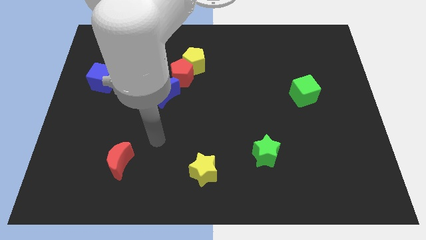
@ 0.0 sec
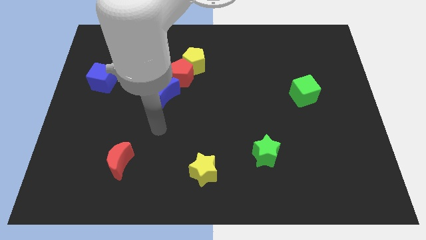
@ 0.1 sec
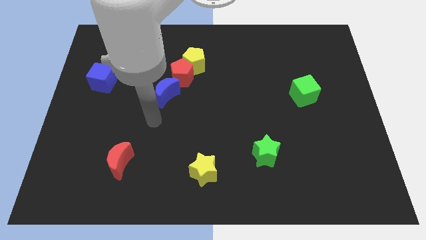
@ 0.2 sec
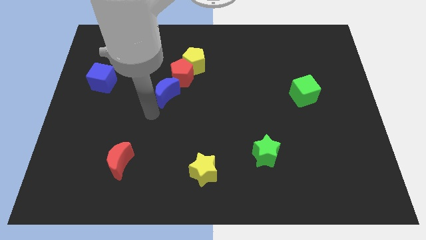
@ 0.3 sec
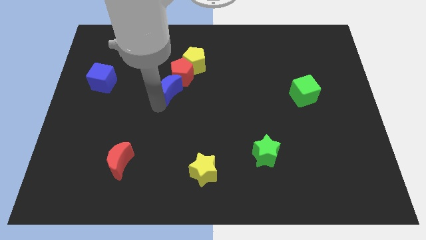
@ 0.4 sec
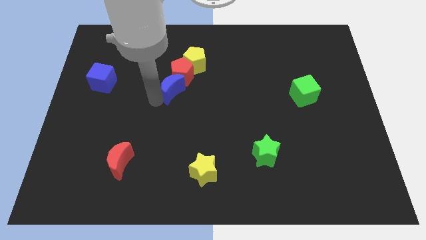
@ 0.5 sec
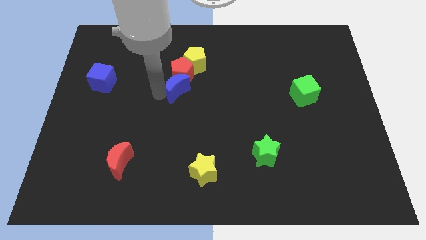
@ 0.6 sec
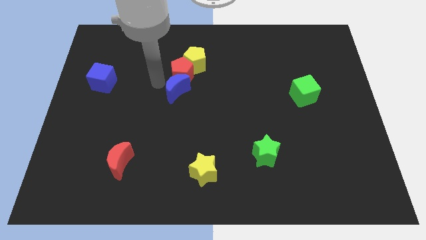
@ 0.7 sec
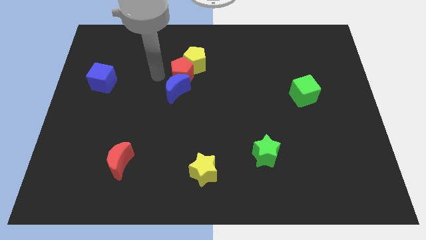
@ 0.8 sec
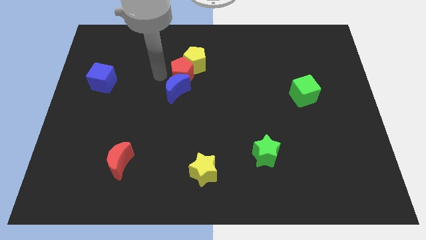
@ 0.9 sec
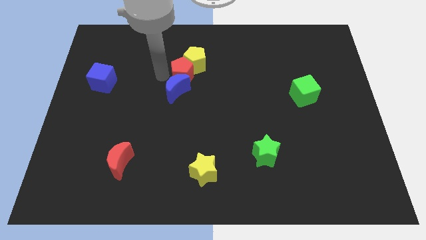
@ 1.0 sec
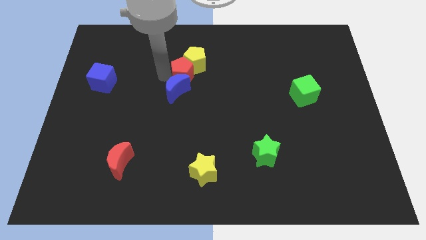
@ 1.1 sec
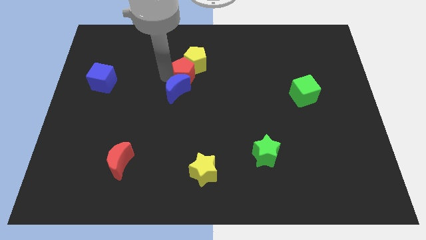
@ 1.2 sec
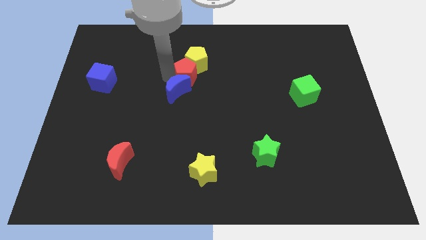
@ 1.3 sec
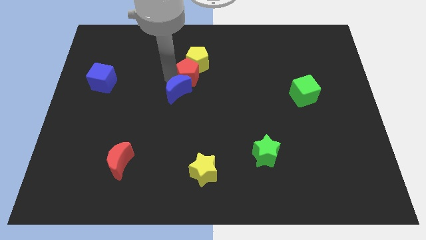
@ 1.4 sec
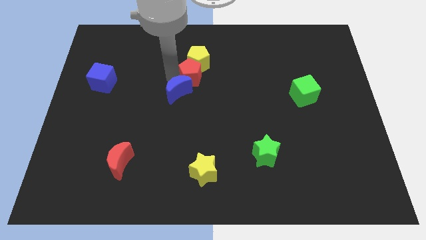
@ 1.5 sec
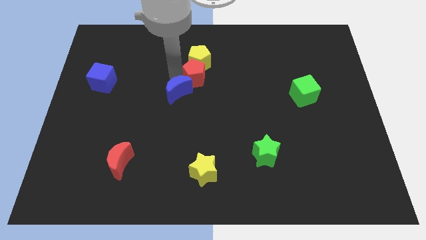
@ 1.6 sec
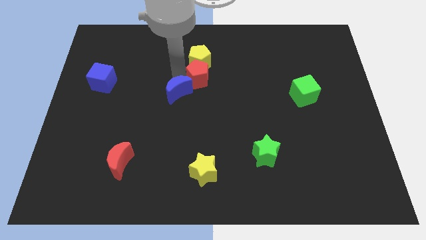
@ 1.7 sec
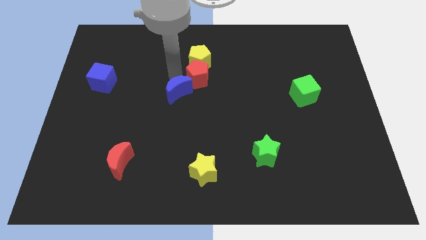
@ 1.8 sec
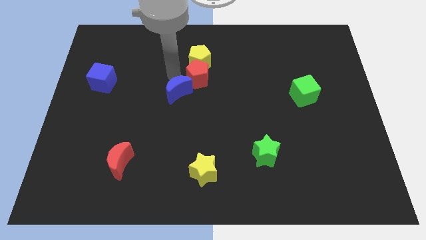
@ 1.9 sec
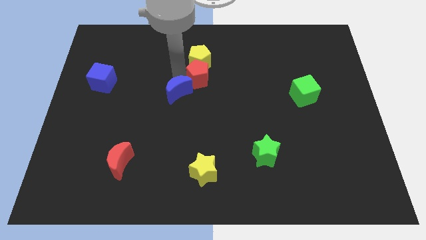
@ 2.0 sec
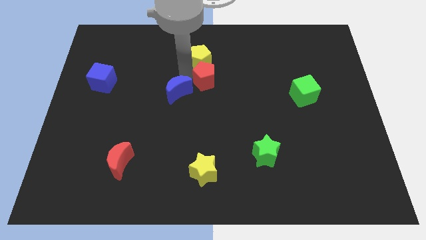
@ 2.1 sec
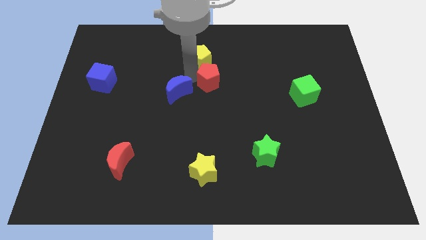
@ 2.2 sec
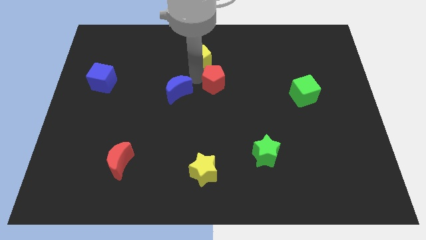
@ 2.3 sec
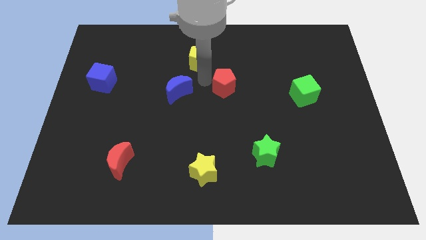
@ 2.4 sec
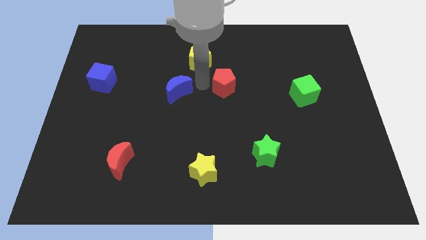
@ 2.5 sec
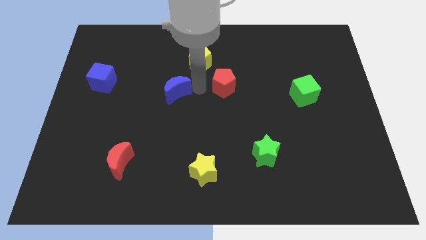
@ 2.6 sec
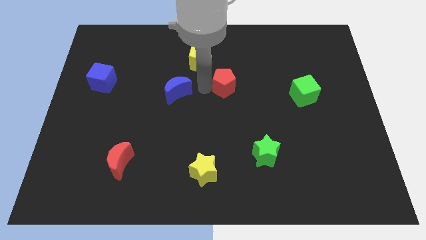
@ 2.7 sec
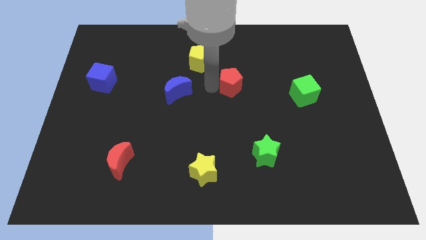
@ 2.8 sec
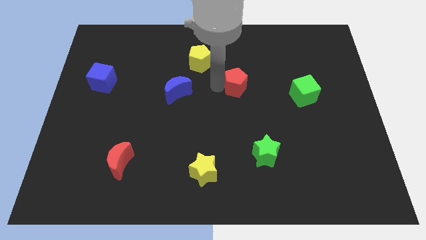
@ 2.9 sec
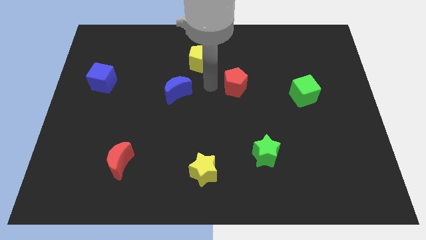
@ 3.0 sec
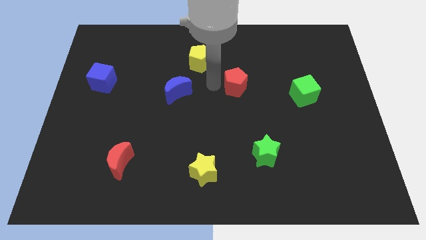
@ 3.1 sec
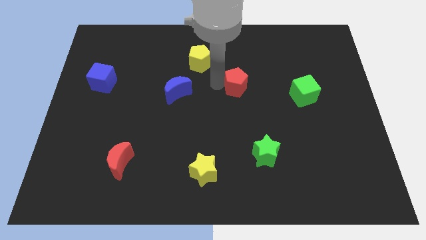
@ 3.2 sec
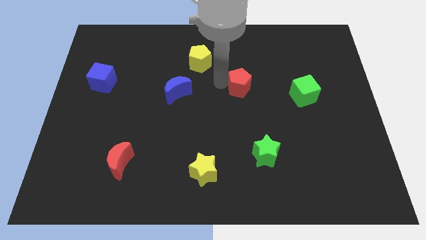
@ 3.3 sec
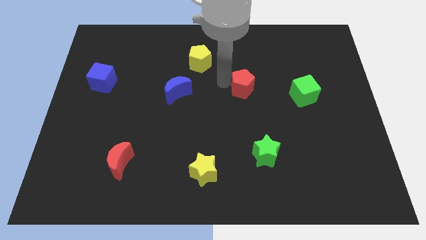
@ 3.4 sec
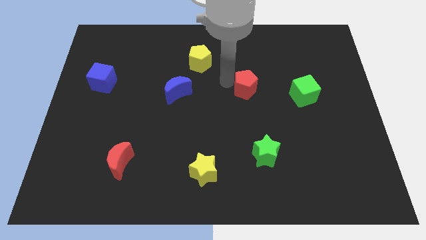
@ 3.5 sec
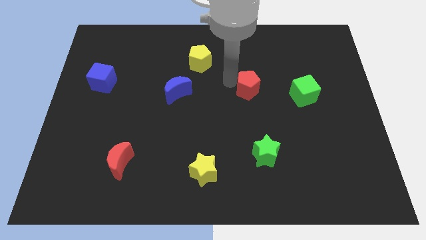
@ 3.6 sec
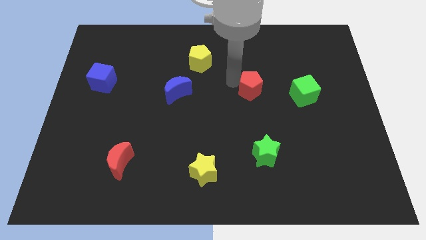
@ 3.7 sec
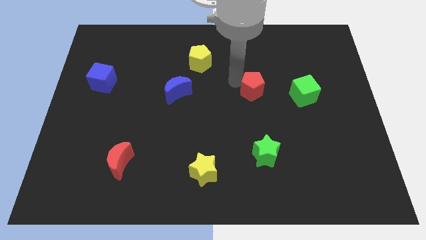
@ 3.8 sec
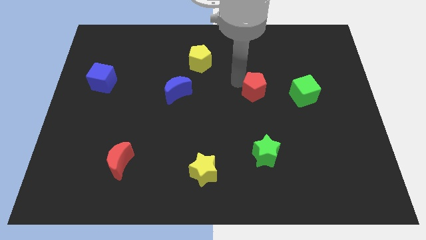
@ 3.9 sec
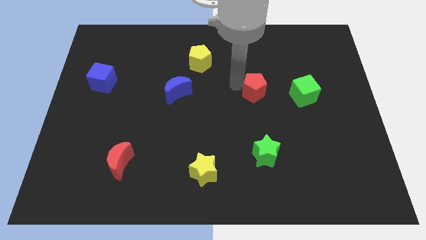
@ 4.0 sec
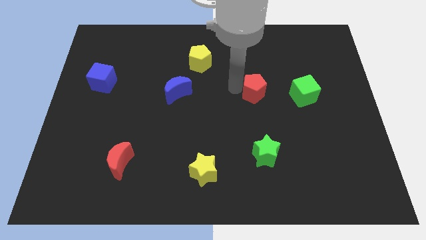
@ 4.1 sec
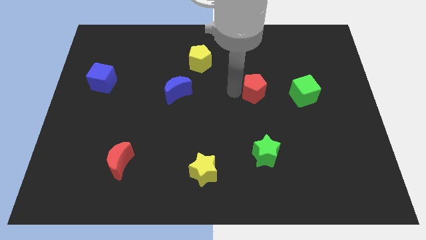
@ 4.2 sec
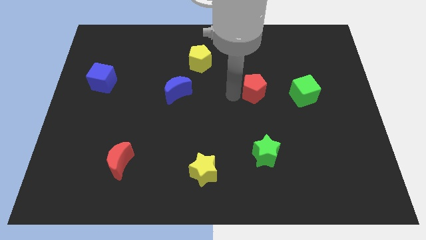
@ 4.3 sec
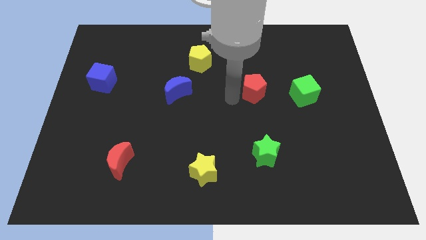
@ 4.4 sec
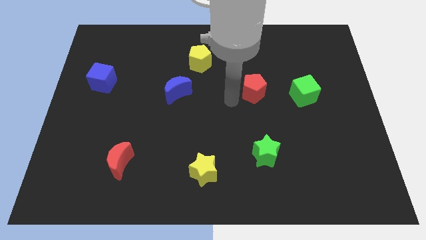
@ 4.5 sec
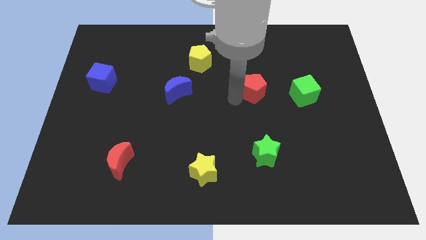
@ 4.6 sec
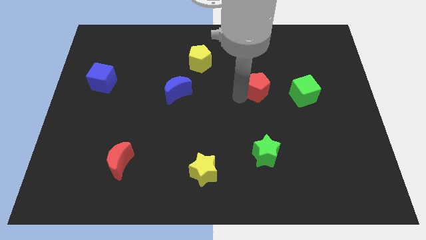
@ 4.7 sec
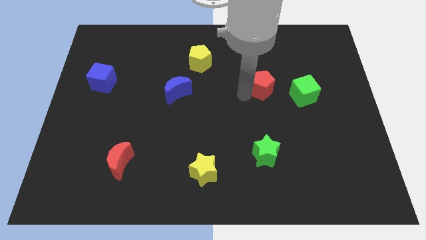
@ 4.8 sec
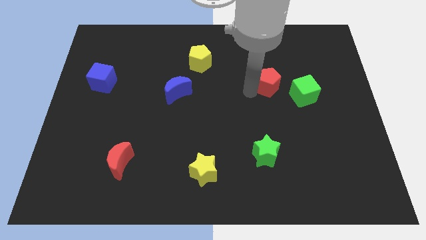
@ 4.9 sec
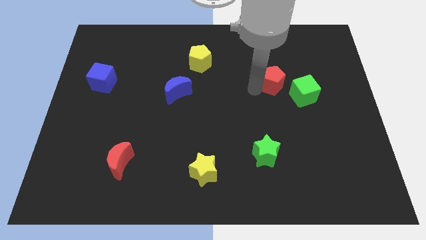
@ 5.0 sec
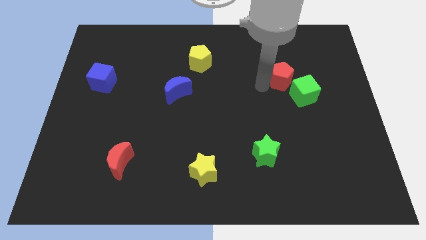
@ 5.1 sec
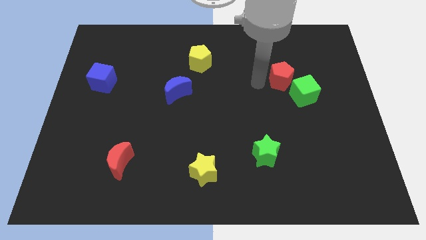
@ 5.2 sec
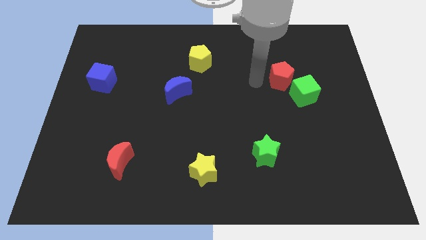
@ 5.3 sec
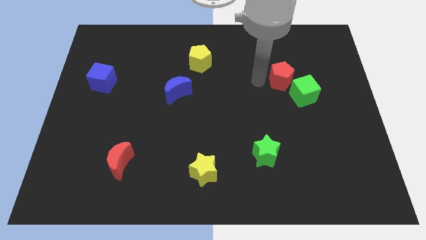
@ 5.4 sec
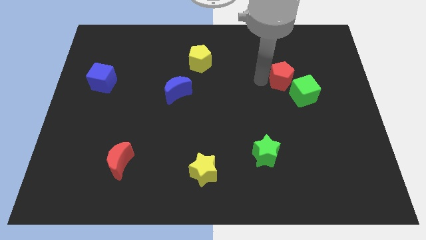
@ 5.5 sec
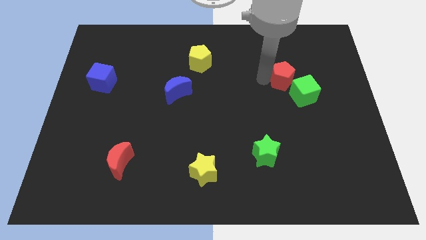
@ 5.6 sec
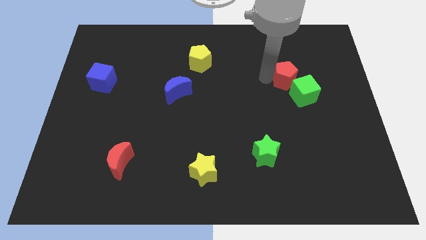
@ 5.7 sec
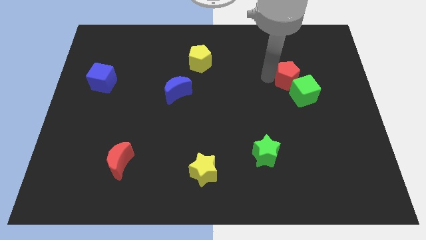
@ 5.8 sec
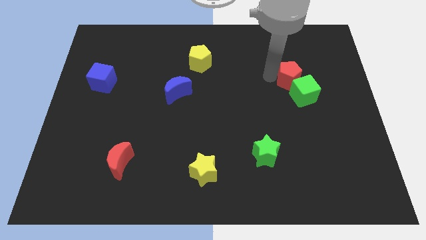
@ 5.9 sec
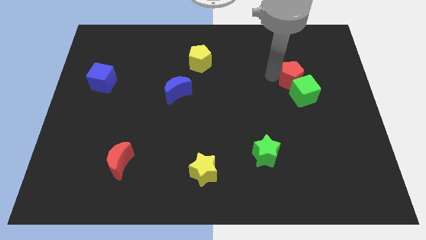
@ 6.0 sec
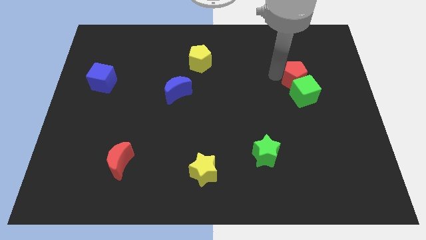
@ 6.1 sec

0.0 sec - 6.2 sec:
slide the red pentagon diagonally up and to the right of the green cube

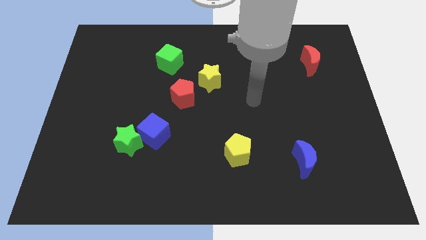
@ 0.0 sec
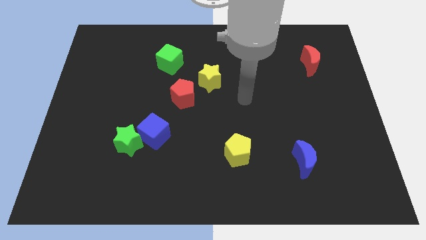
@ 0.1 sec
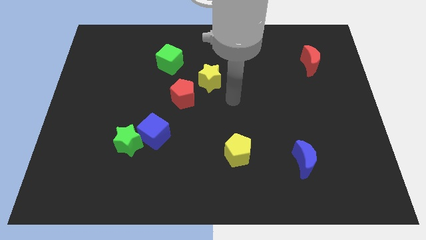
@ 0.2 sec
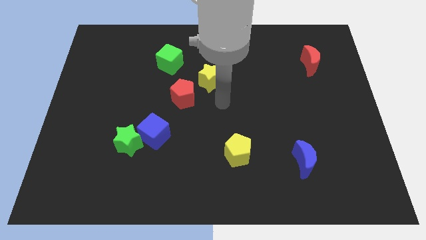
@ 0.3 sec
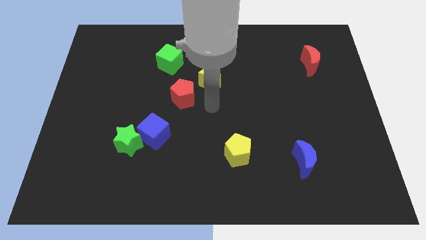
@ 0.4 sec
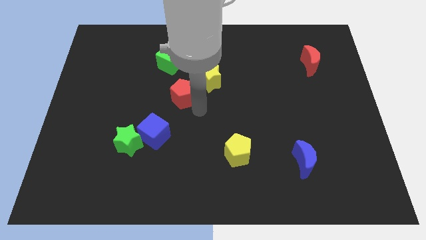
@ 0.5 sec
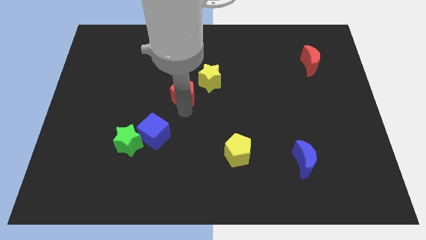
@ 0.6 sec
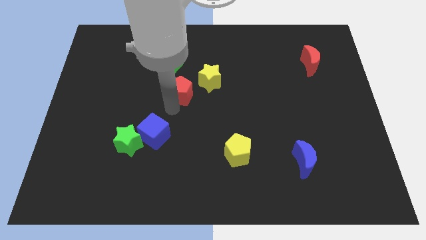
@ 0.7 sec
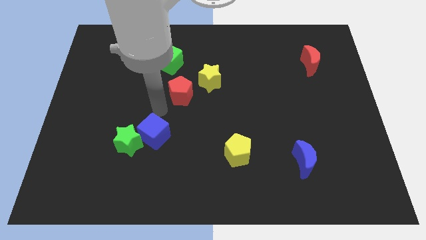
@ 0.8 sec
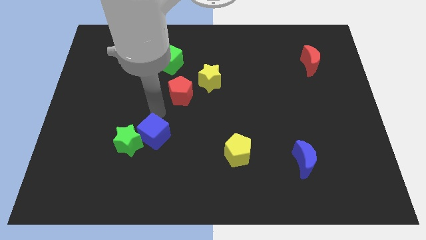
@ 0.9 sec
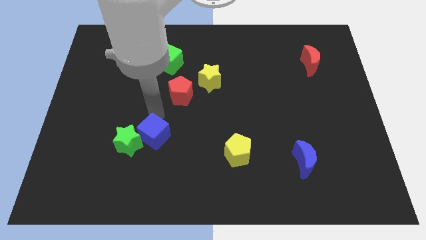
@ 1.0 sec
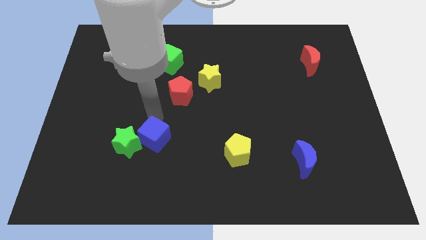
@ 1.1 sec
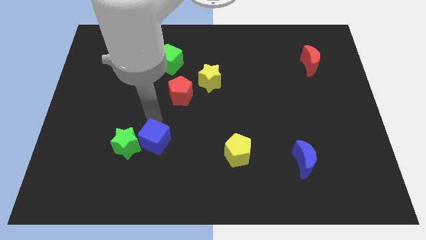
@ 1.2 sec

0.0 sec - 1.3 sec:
slide the blue cube to the bottom right side of the green star

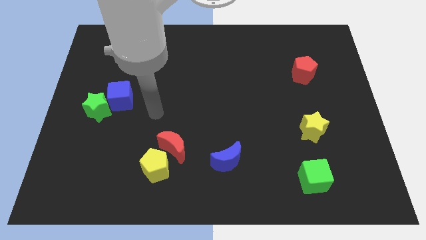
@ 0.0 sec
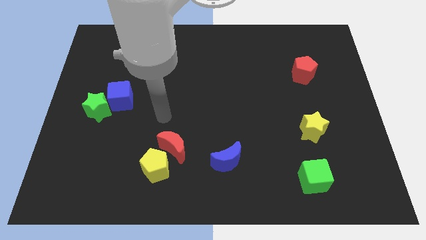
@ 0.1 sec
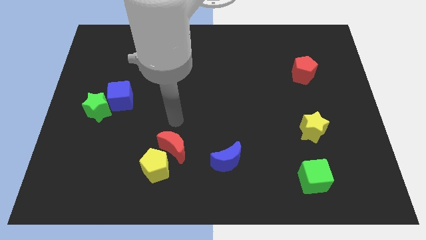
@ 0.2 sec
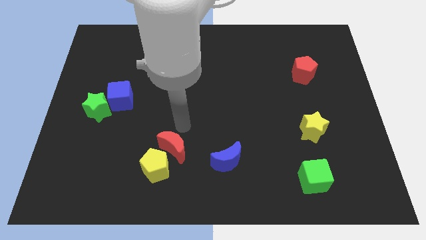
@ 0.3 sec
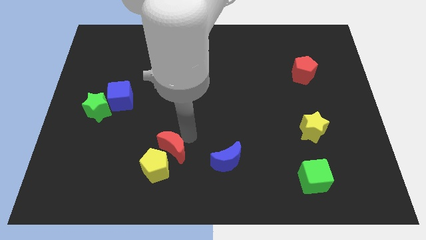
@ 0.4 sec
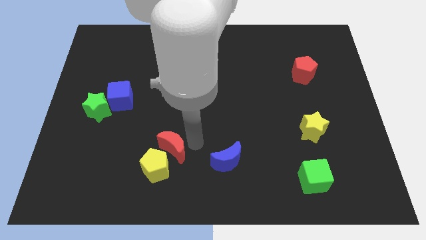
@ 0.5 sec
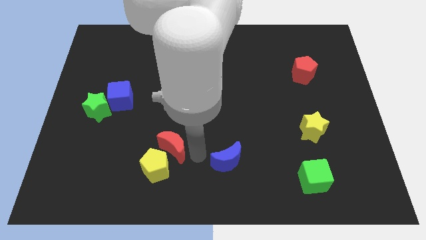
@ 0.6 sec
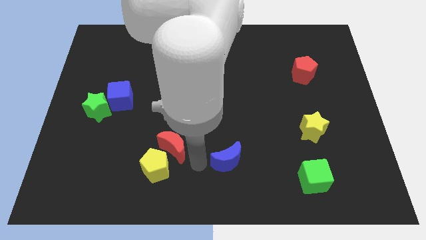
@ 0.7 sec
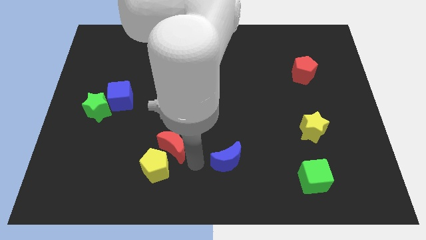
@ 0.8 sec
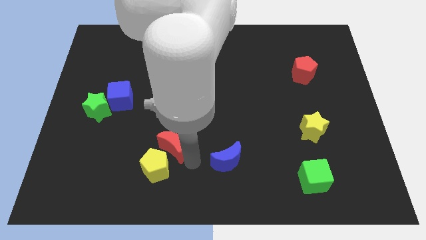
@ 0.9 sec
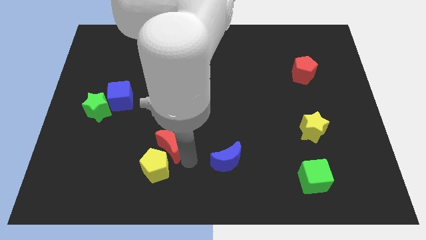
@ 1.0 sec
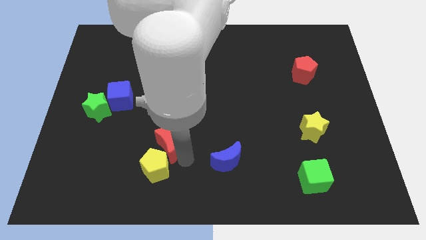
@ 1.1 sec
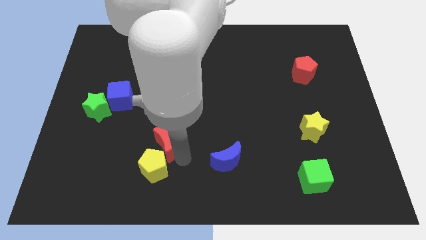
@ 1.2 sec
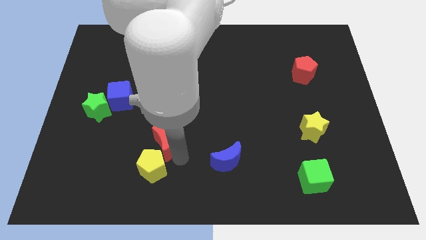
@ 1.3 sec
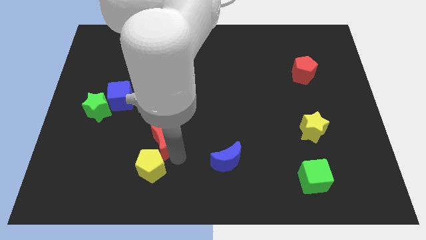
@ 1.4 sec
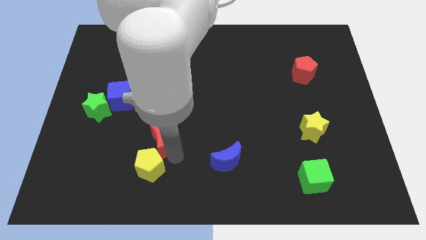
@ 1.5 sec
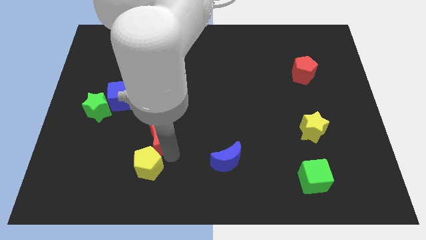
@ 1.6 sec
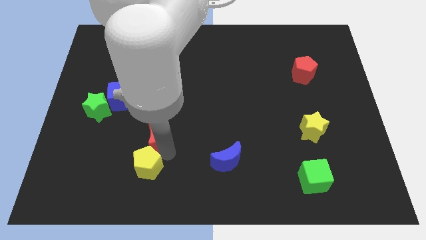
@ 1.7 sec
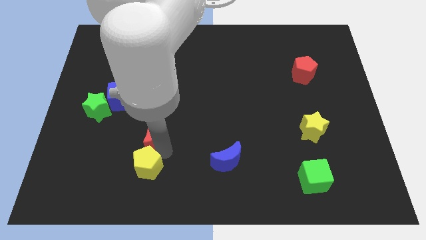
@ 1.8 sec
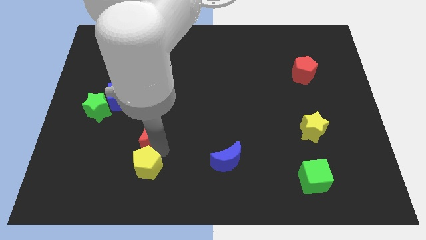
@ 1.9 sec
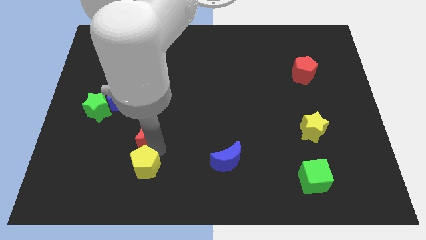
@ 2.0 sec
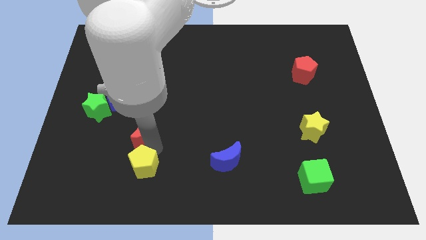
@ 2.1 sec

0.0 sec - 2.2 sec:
slide the red moon to the bottom right of the blue cube
